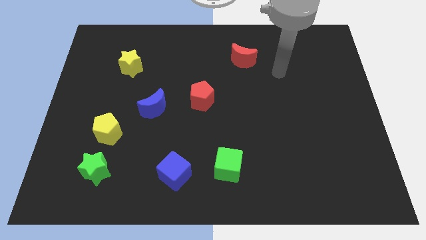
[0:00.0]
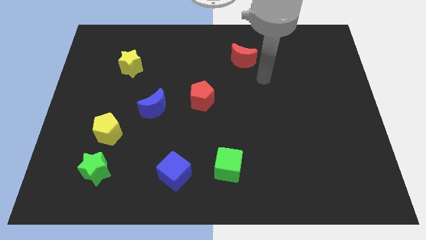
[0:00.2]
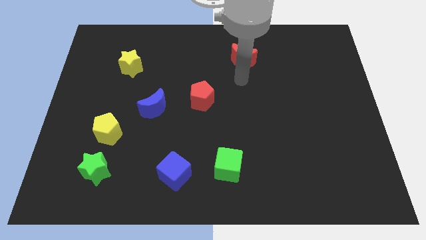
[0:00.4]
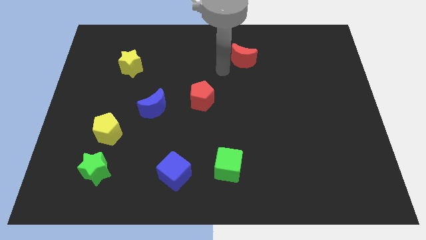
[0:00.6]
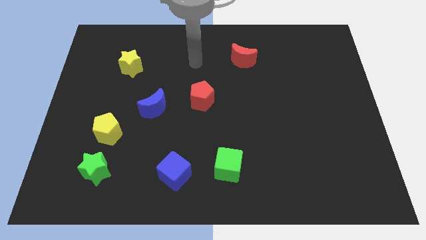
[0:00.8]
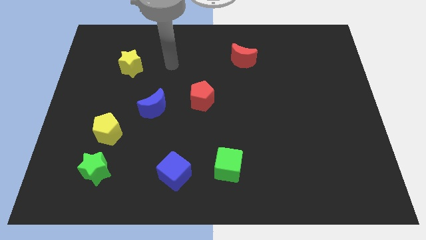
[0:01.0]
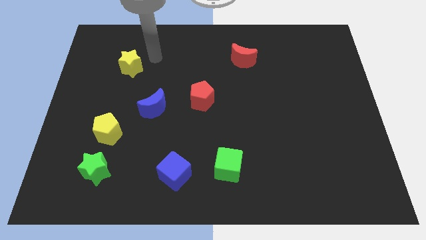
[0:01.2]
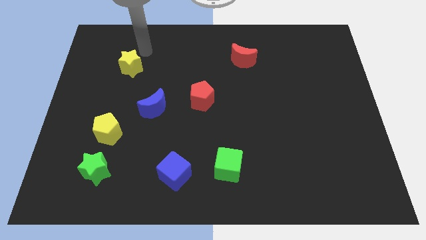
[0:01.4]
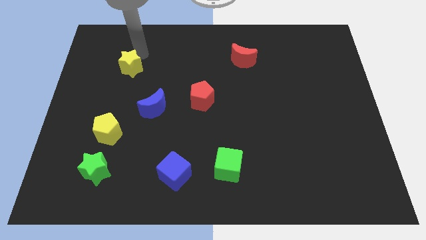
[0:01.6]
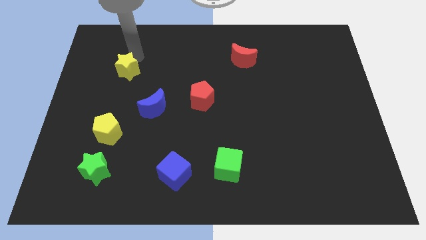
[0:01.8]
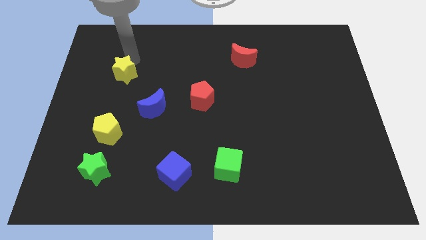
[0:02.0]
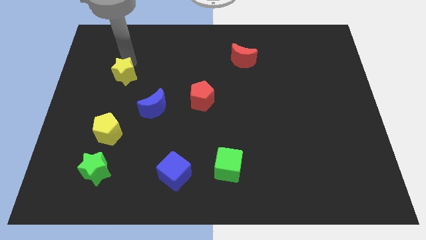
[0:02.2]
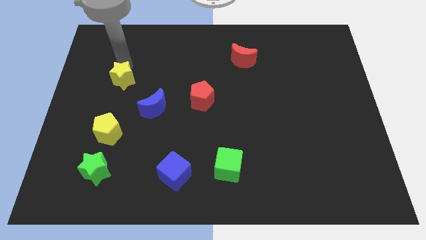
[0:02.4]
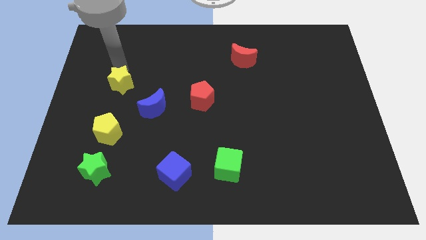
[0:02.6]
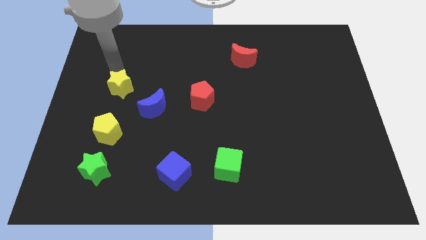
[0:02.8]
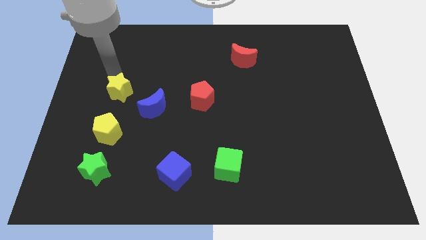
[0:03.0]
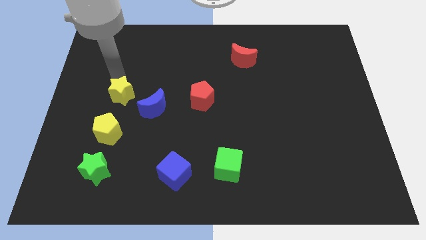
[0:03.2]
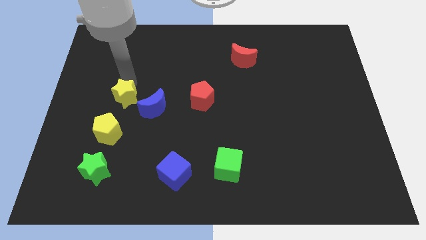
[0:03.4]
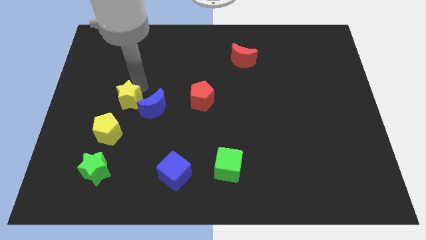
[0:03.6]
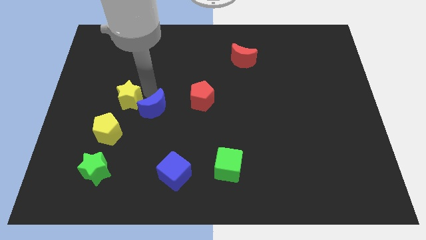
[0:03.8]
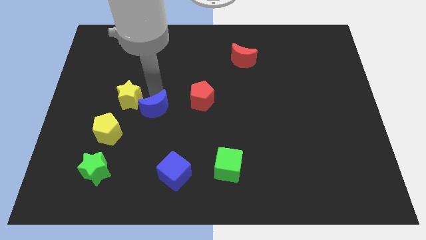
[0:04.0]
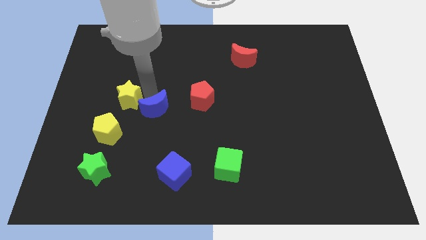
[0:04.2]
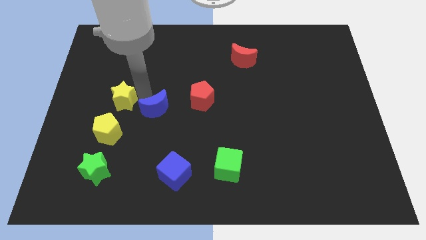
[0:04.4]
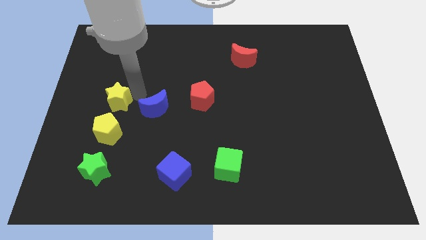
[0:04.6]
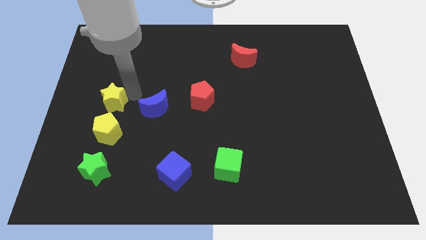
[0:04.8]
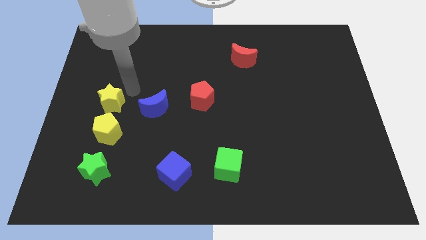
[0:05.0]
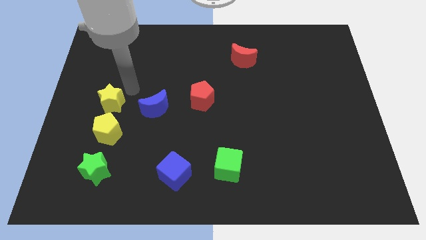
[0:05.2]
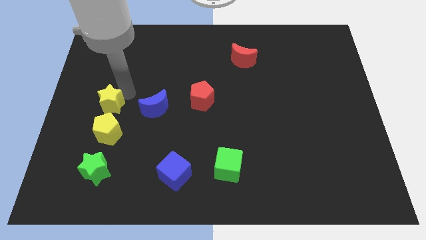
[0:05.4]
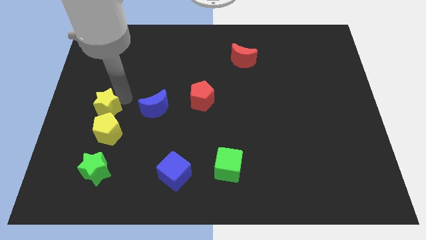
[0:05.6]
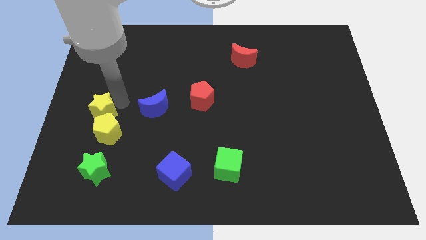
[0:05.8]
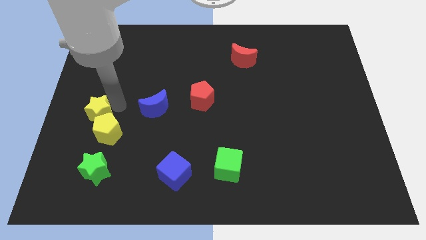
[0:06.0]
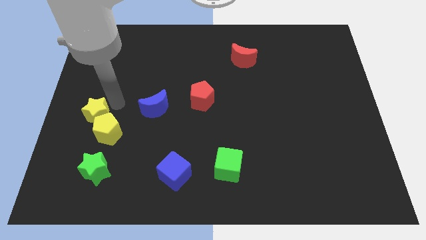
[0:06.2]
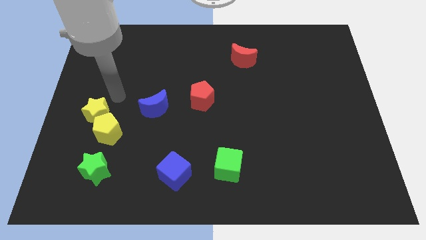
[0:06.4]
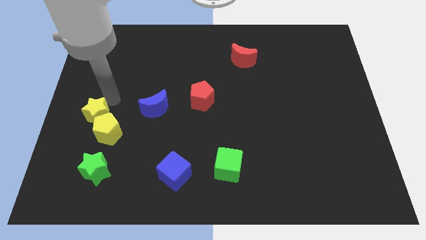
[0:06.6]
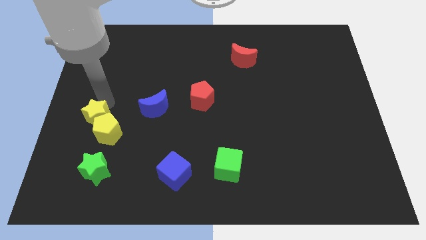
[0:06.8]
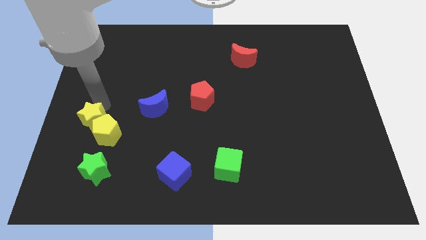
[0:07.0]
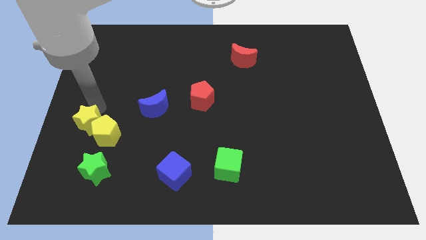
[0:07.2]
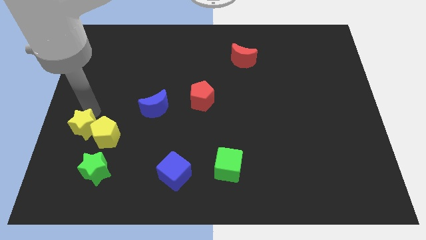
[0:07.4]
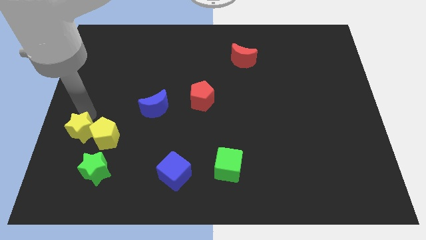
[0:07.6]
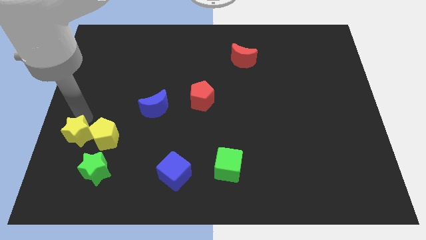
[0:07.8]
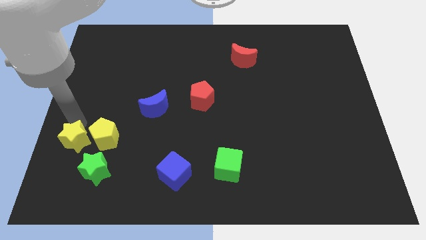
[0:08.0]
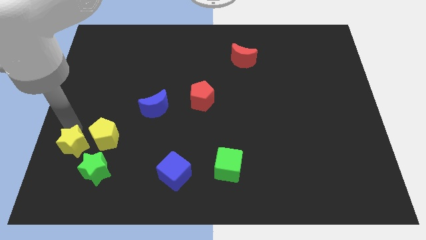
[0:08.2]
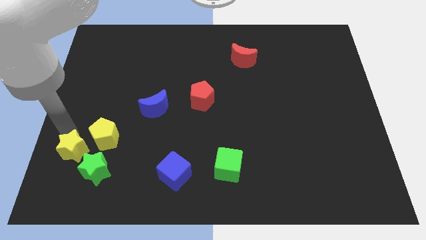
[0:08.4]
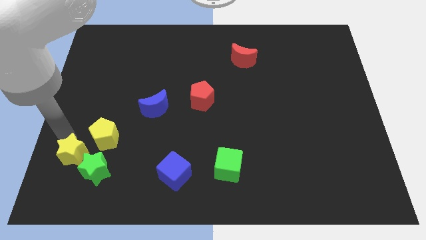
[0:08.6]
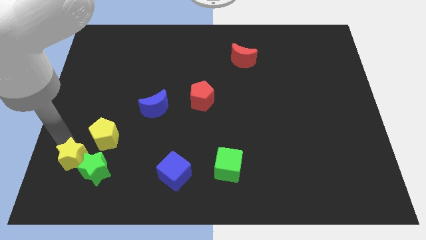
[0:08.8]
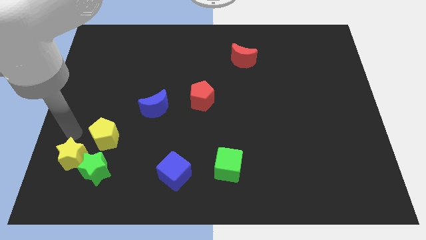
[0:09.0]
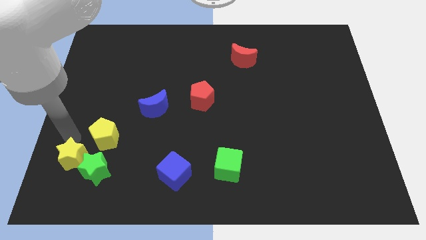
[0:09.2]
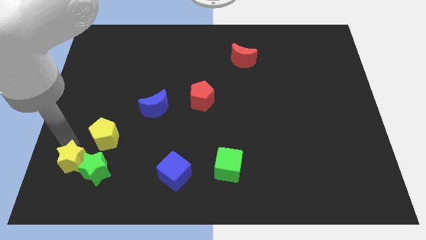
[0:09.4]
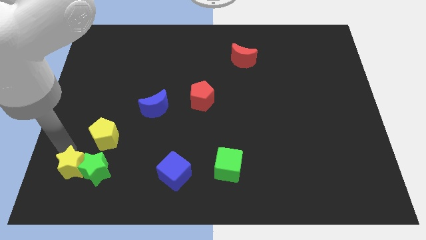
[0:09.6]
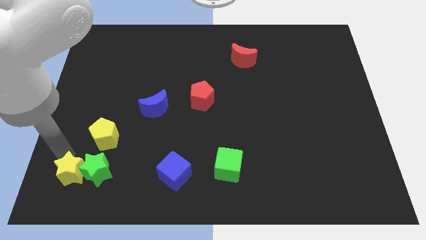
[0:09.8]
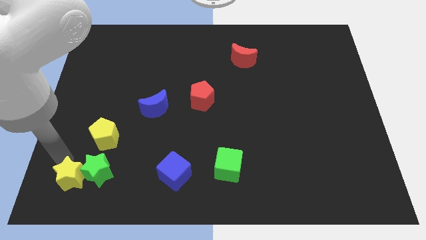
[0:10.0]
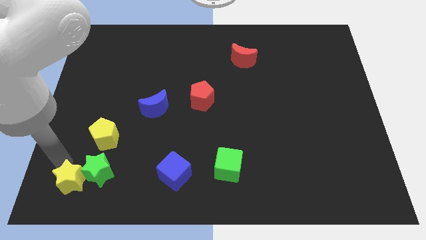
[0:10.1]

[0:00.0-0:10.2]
move the yellow star to the bottom side of the yellow pentagon

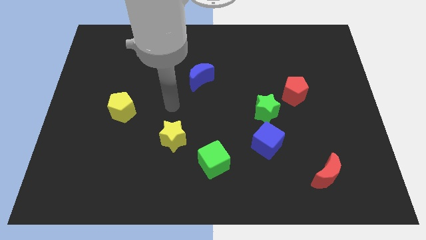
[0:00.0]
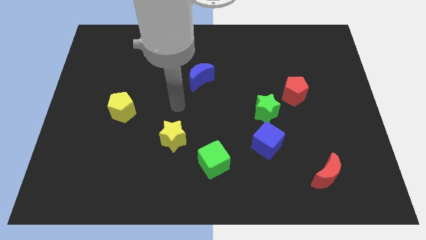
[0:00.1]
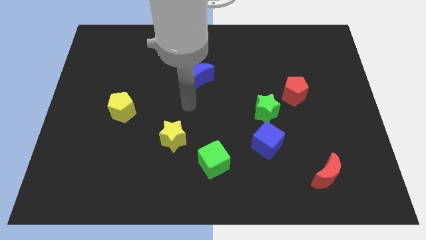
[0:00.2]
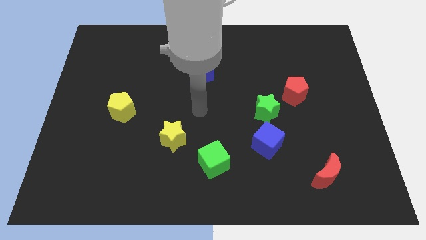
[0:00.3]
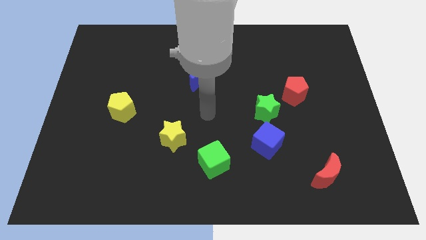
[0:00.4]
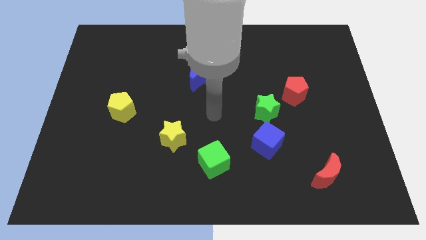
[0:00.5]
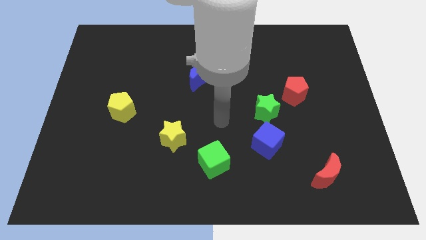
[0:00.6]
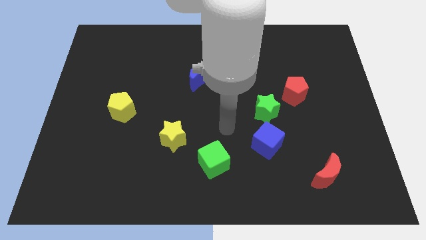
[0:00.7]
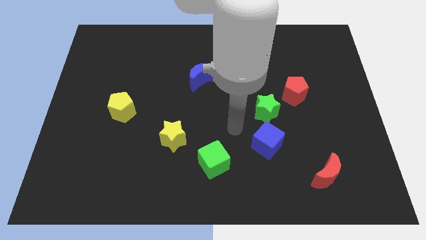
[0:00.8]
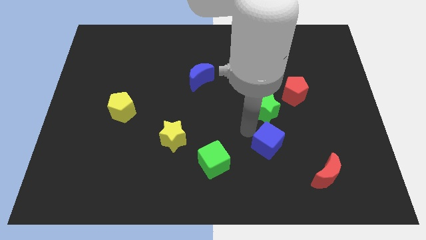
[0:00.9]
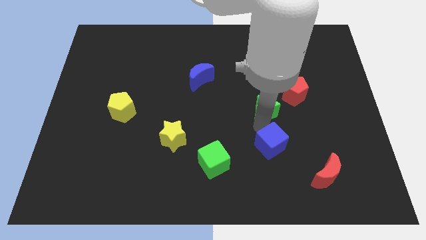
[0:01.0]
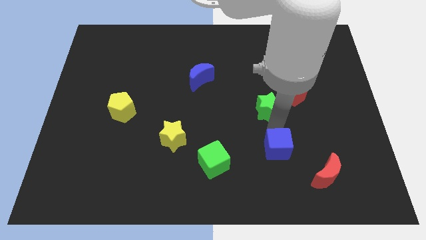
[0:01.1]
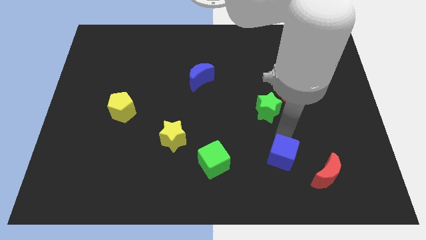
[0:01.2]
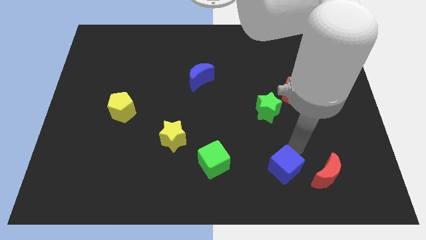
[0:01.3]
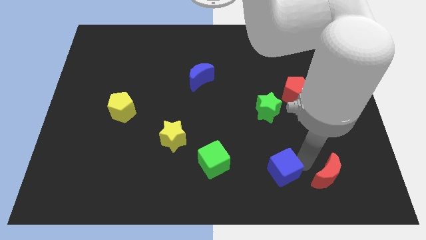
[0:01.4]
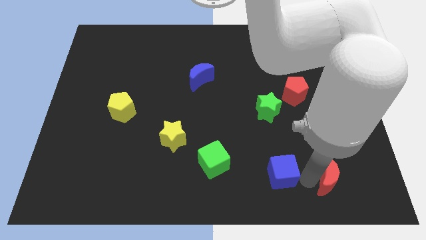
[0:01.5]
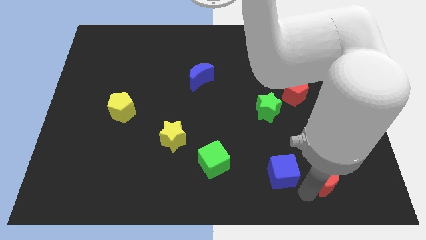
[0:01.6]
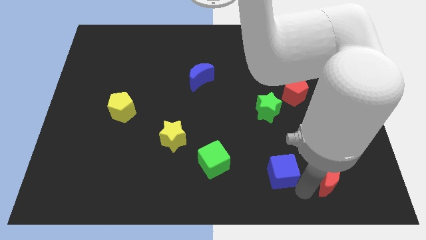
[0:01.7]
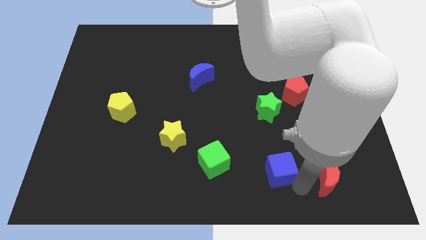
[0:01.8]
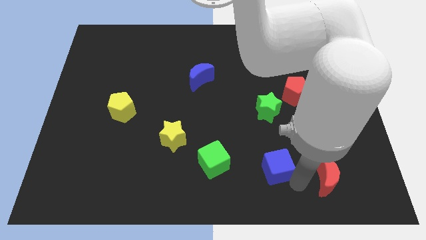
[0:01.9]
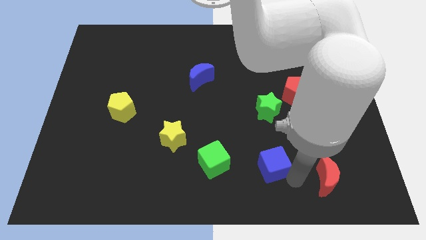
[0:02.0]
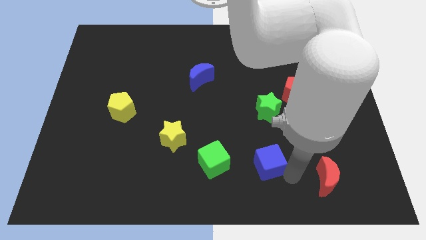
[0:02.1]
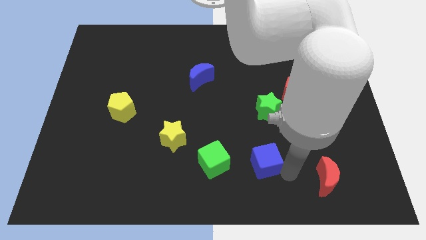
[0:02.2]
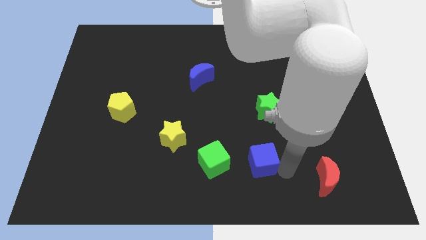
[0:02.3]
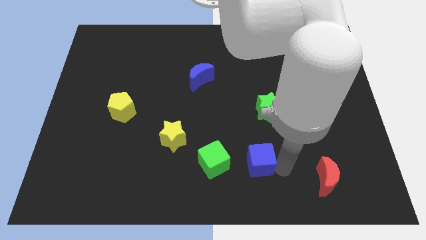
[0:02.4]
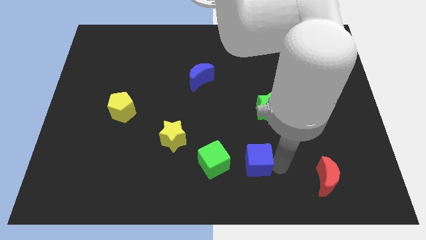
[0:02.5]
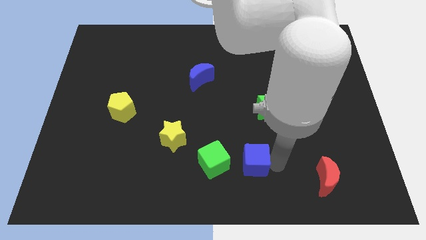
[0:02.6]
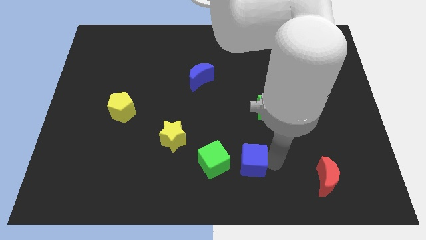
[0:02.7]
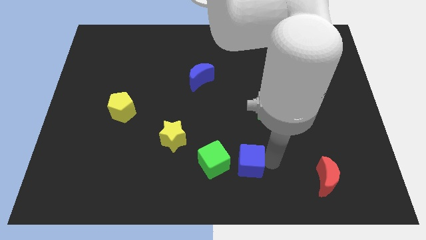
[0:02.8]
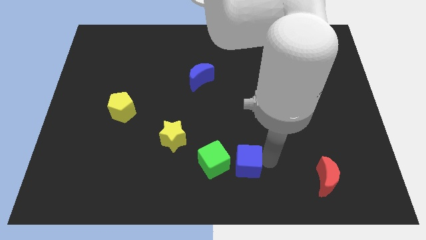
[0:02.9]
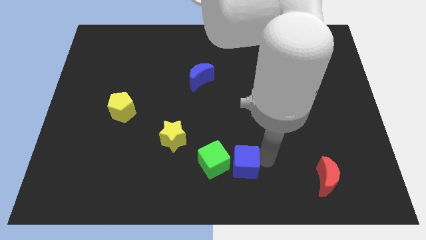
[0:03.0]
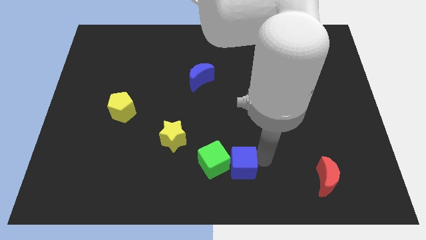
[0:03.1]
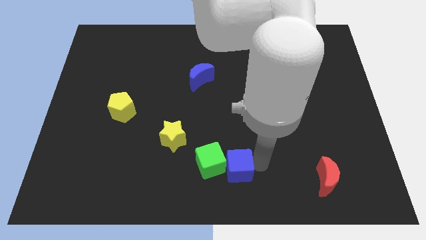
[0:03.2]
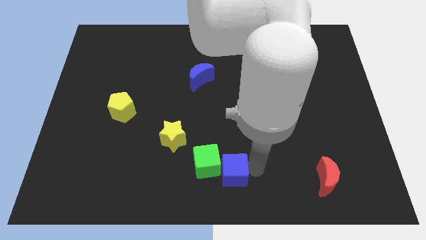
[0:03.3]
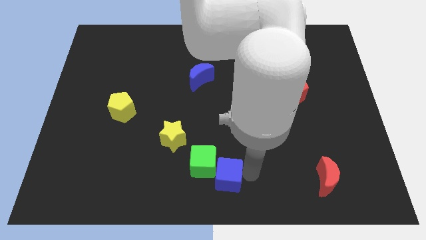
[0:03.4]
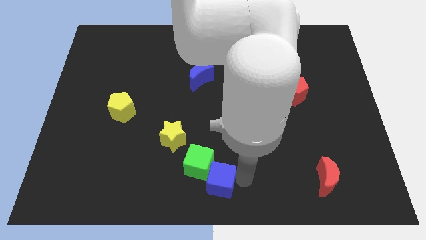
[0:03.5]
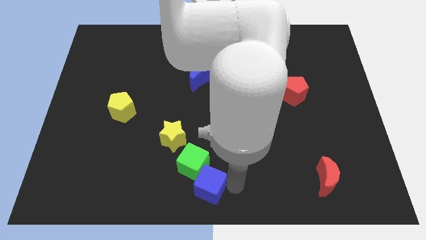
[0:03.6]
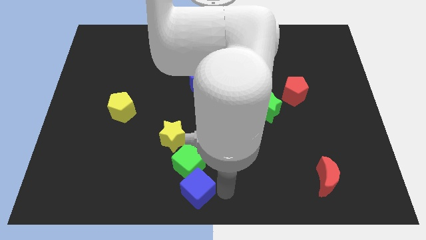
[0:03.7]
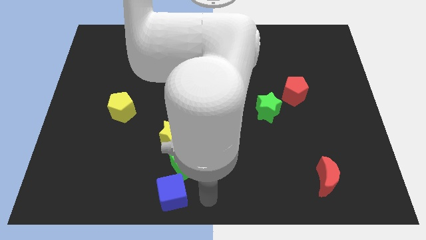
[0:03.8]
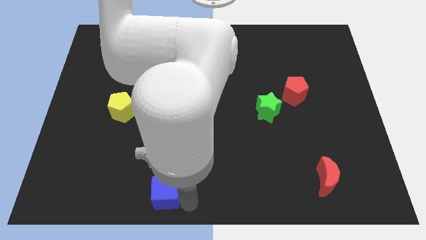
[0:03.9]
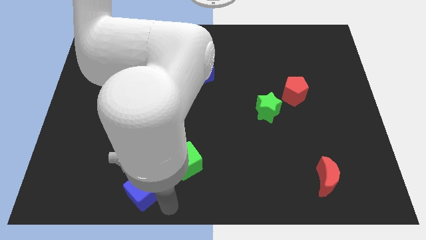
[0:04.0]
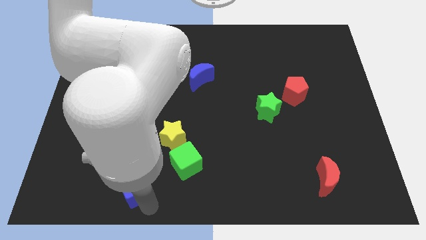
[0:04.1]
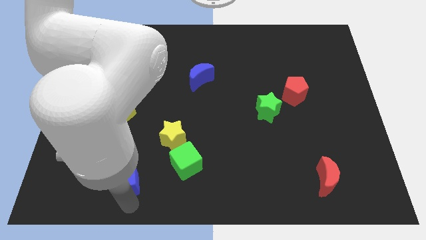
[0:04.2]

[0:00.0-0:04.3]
move the blue cube to the left of the green cube
